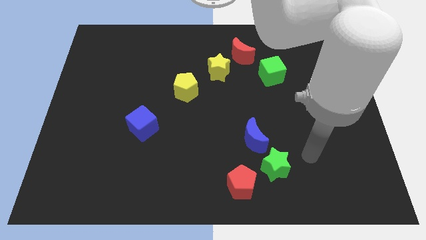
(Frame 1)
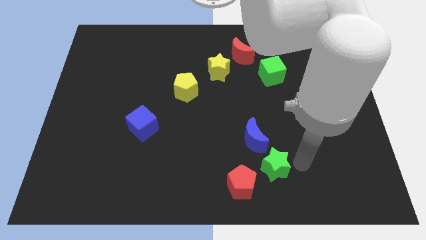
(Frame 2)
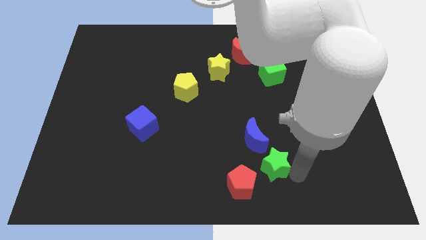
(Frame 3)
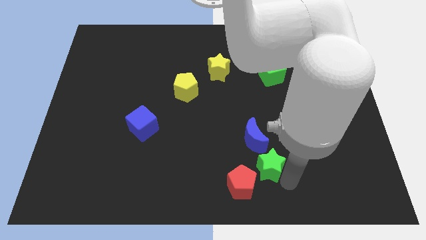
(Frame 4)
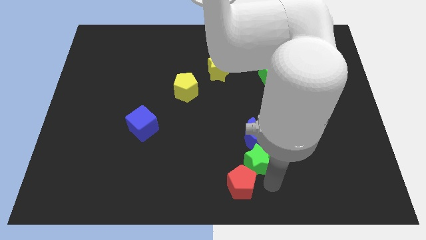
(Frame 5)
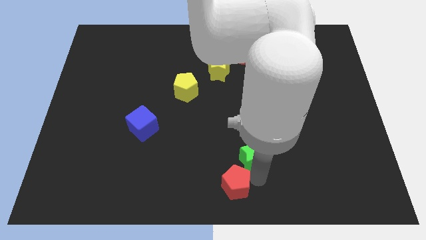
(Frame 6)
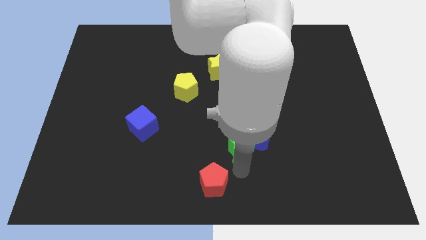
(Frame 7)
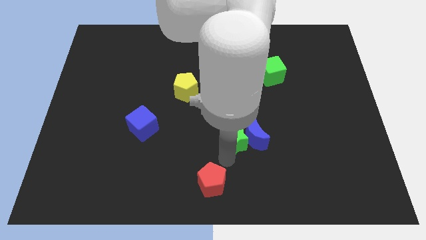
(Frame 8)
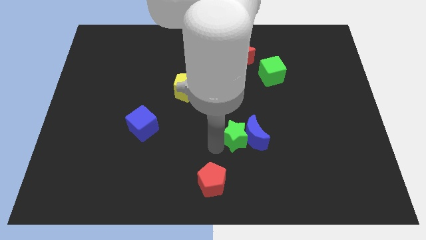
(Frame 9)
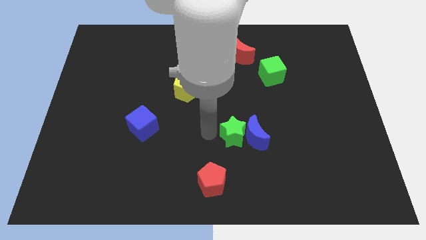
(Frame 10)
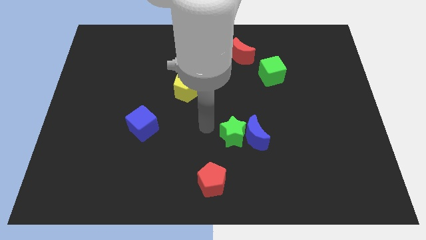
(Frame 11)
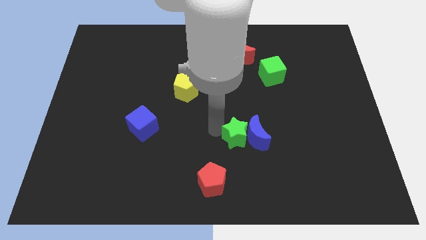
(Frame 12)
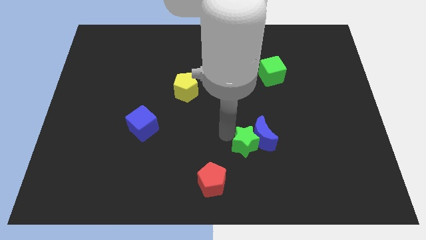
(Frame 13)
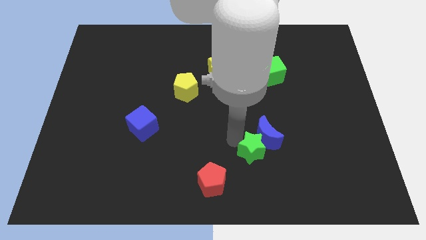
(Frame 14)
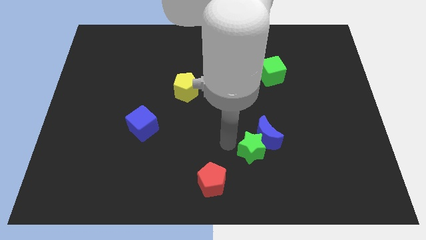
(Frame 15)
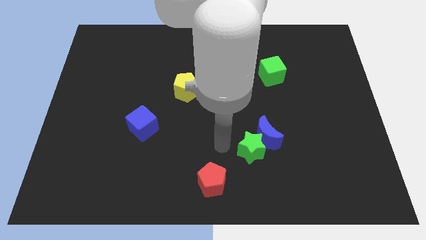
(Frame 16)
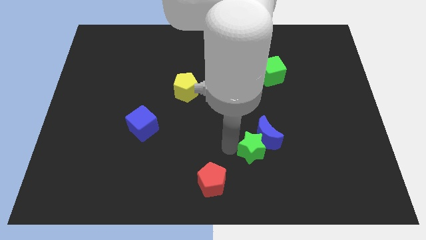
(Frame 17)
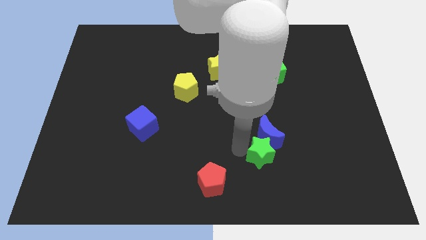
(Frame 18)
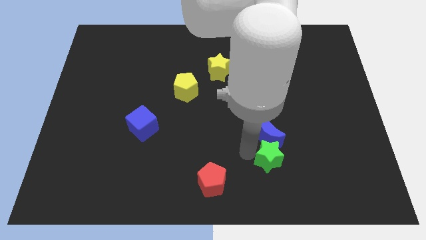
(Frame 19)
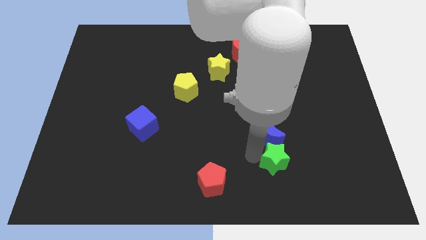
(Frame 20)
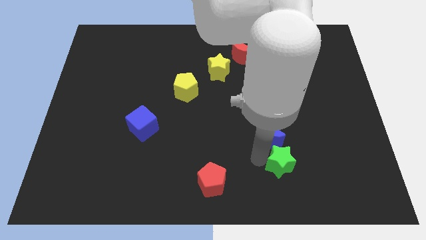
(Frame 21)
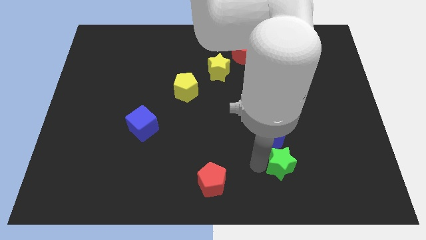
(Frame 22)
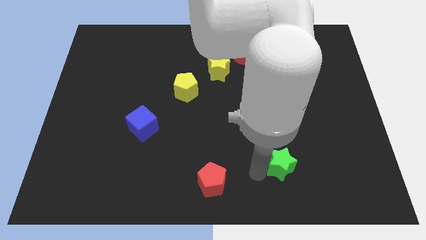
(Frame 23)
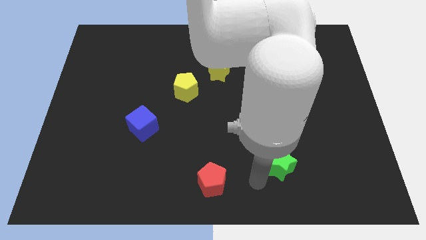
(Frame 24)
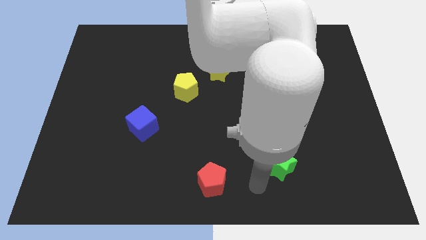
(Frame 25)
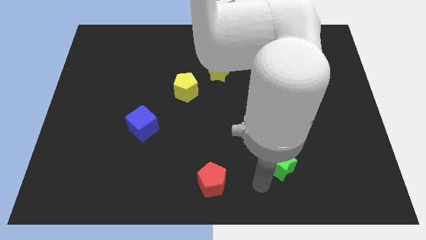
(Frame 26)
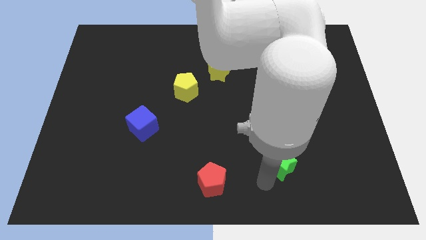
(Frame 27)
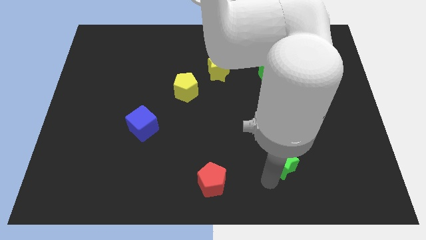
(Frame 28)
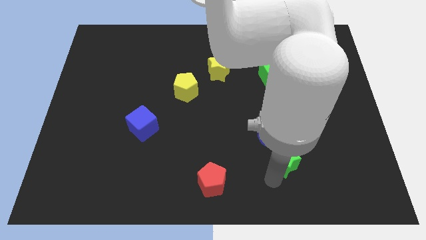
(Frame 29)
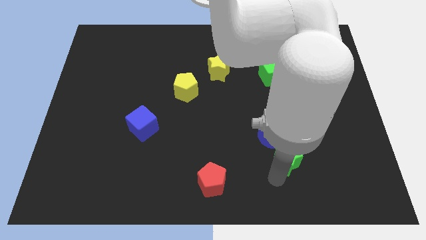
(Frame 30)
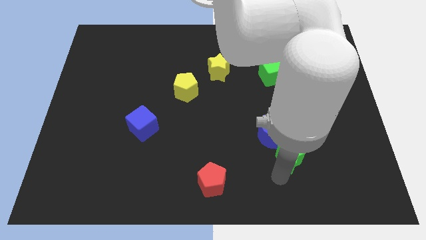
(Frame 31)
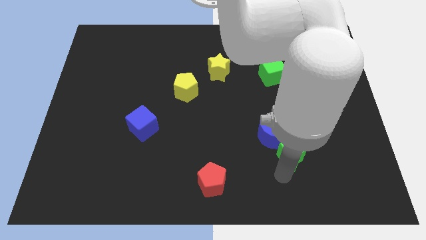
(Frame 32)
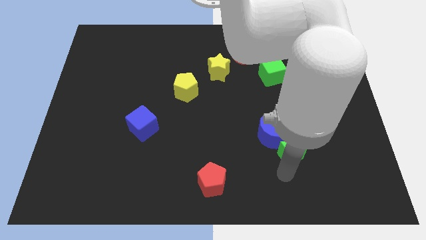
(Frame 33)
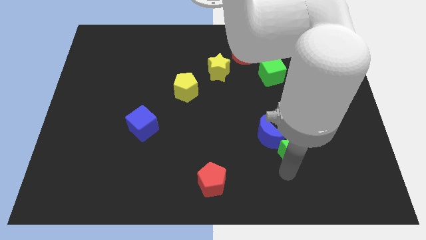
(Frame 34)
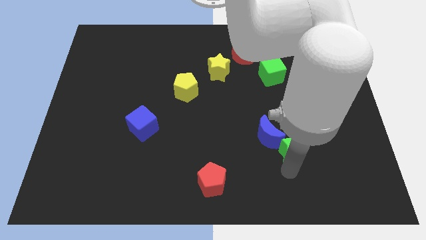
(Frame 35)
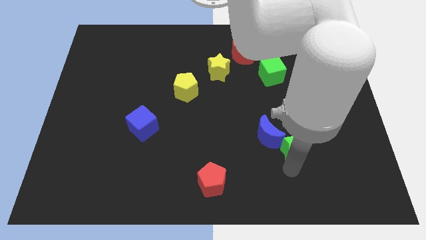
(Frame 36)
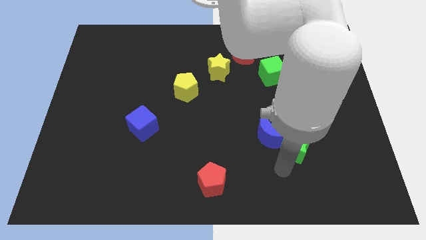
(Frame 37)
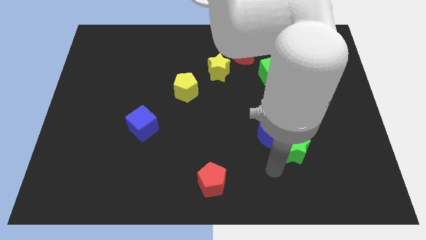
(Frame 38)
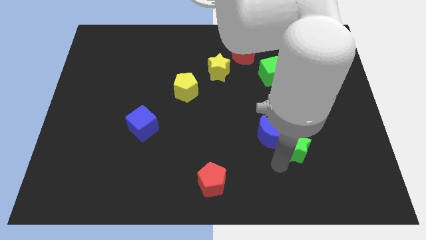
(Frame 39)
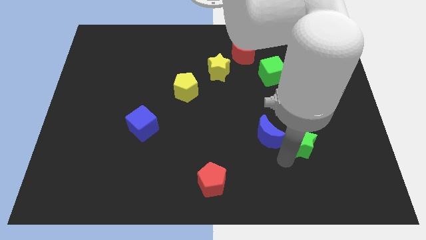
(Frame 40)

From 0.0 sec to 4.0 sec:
slightly move the green star up and to the right

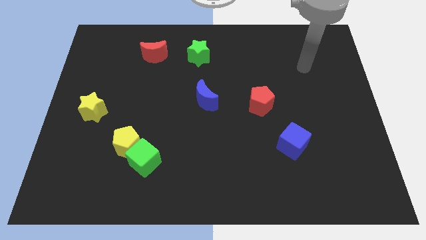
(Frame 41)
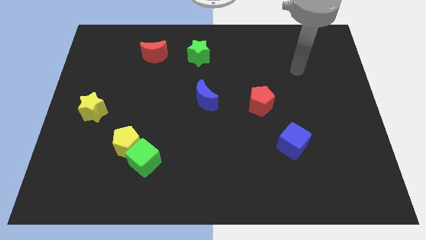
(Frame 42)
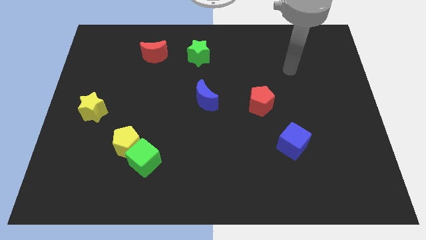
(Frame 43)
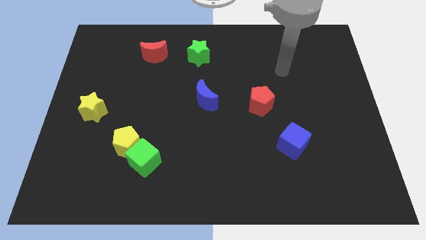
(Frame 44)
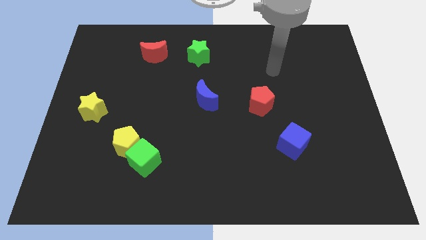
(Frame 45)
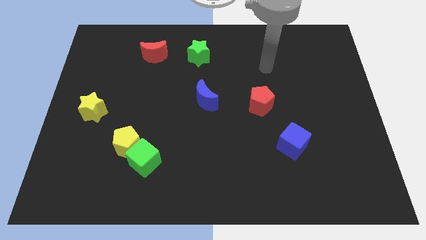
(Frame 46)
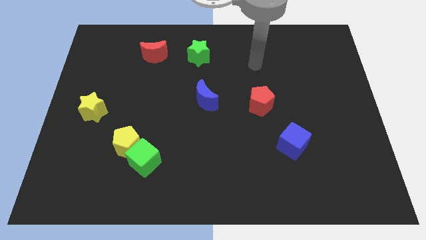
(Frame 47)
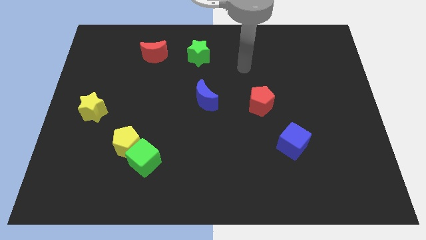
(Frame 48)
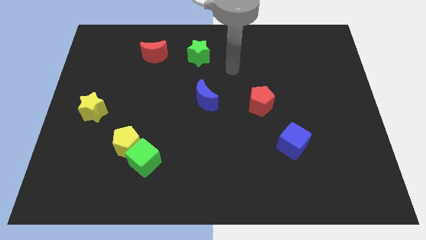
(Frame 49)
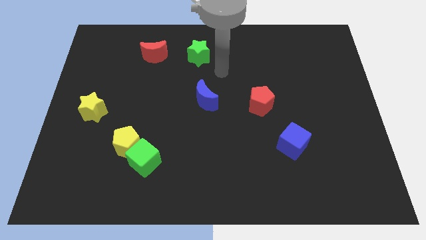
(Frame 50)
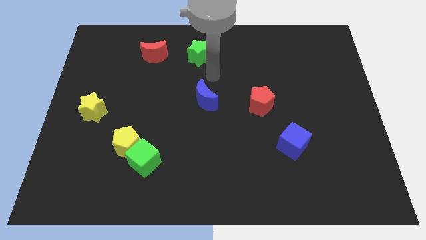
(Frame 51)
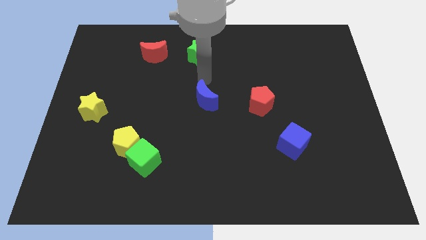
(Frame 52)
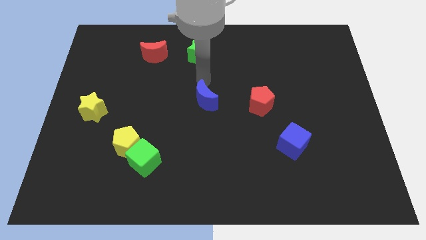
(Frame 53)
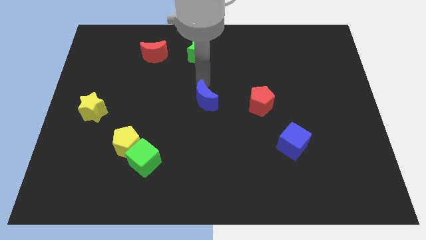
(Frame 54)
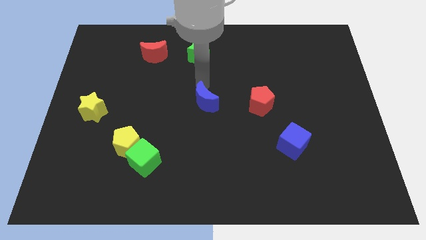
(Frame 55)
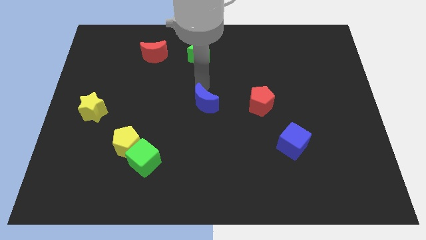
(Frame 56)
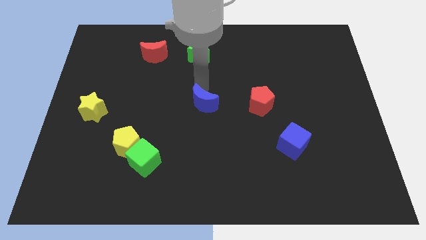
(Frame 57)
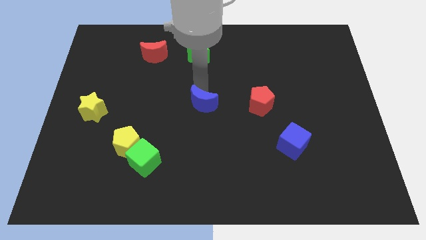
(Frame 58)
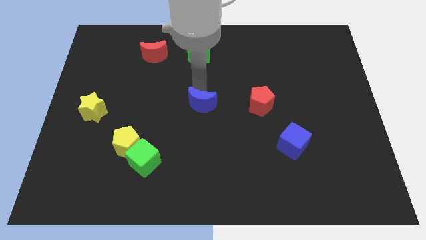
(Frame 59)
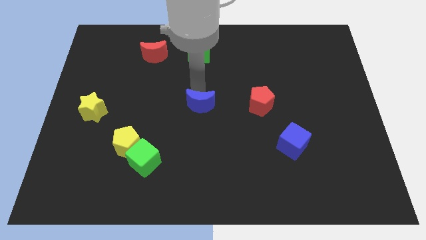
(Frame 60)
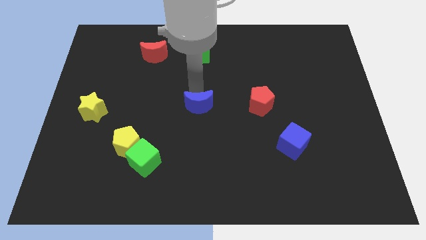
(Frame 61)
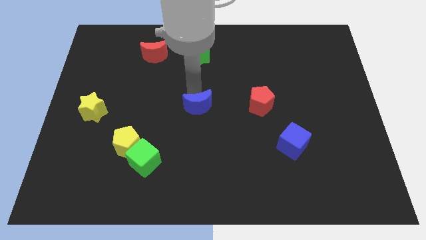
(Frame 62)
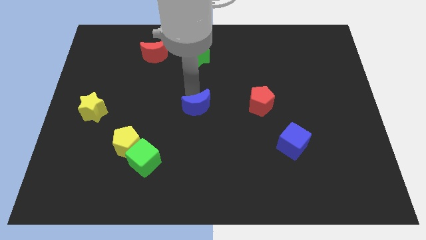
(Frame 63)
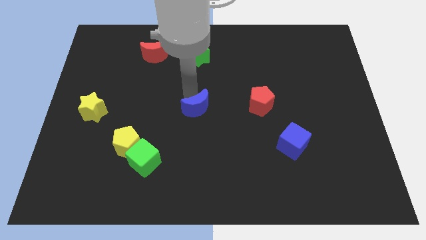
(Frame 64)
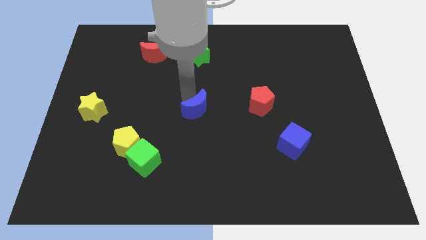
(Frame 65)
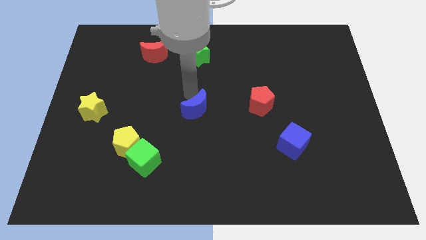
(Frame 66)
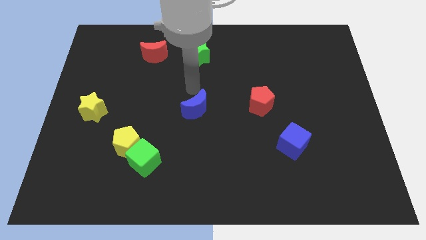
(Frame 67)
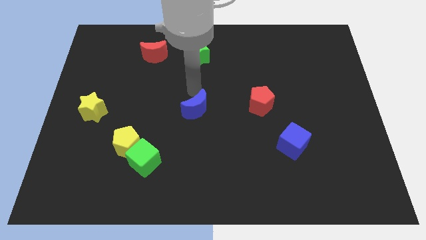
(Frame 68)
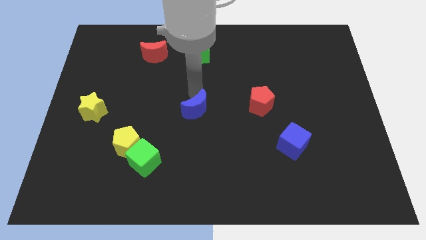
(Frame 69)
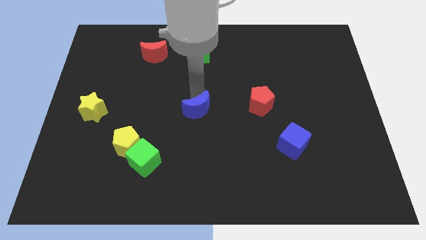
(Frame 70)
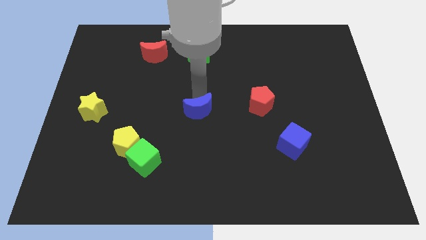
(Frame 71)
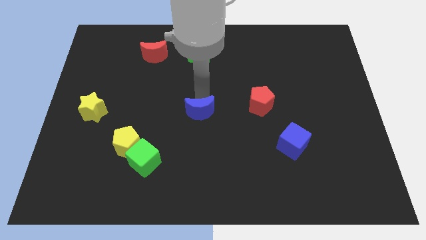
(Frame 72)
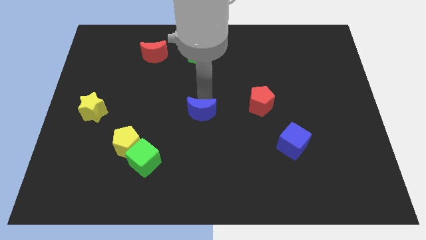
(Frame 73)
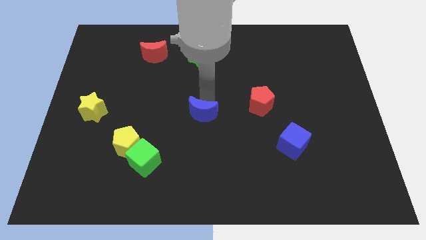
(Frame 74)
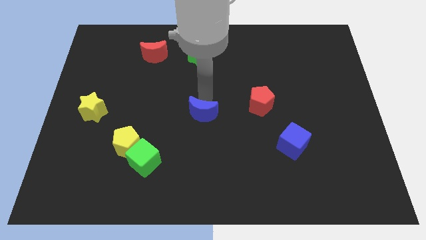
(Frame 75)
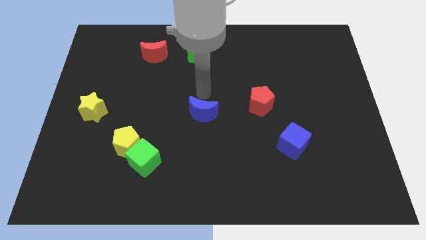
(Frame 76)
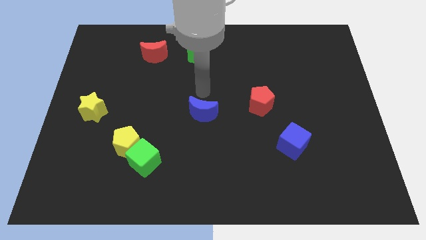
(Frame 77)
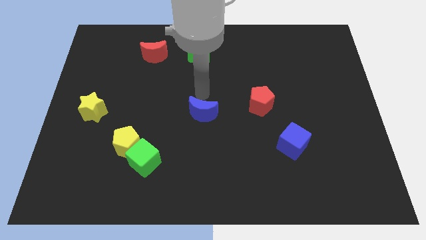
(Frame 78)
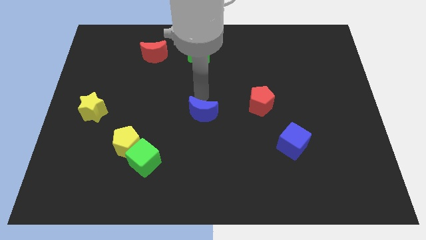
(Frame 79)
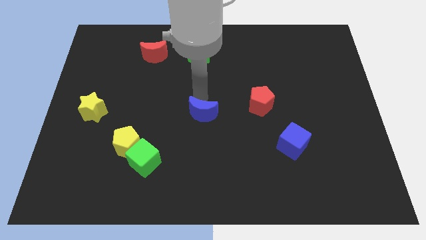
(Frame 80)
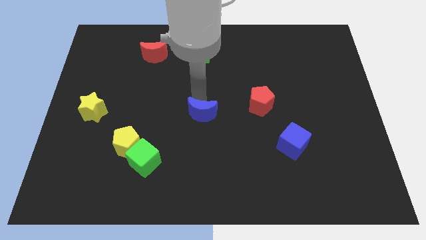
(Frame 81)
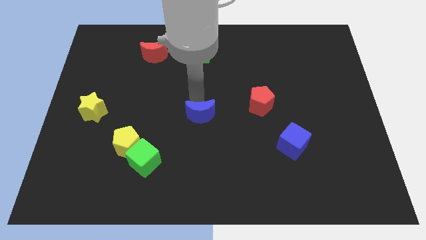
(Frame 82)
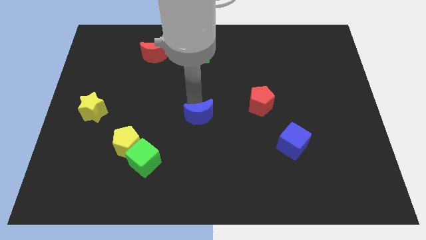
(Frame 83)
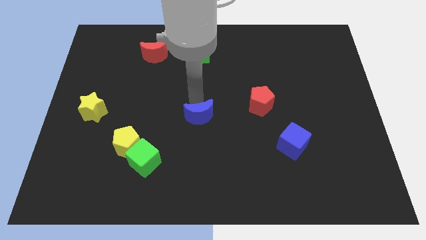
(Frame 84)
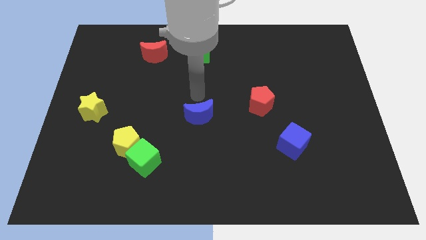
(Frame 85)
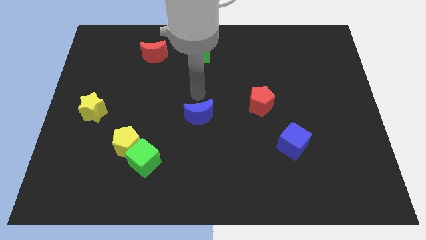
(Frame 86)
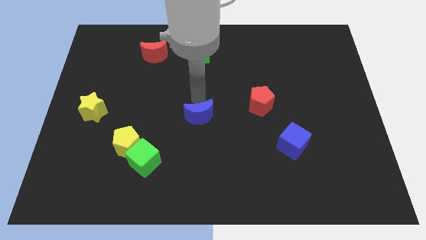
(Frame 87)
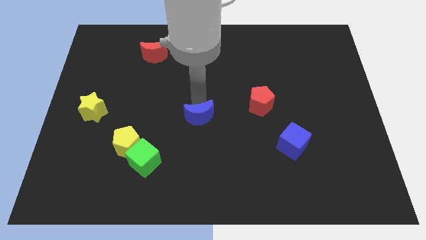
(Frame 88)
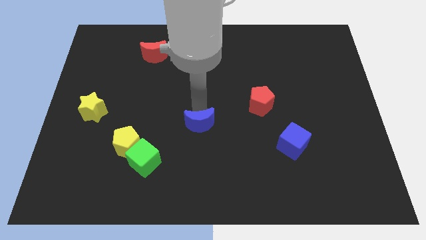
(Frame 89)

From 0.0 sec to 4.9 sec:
move the blue moon a bit down
